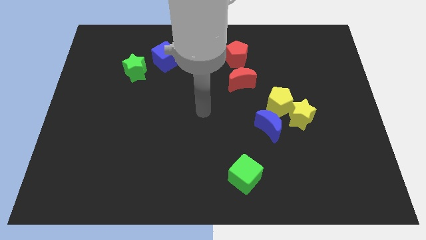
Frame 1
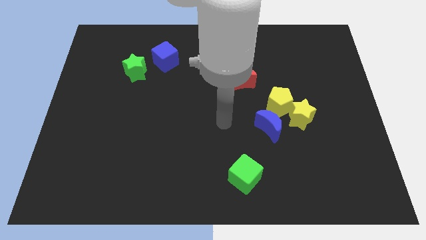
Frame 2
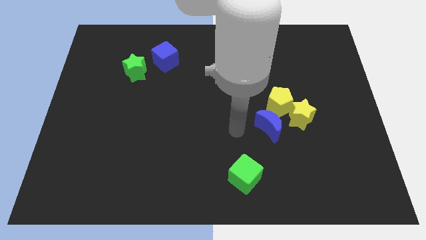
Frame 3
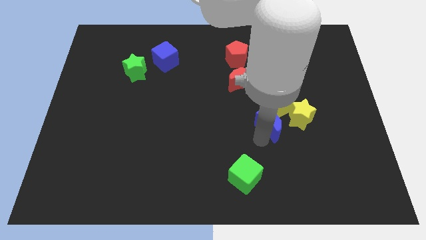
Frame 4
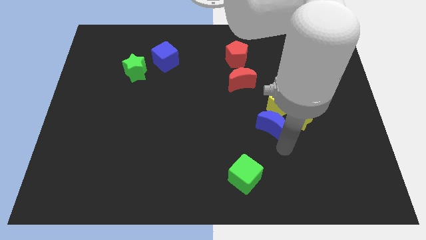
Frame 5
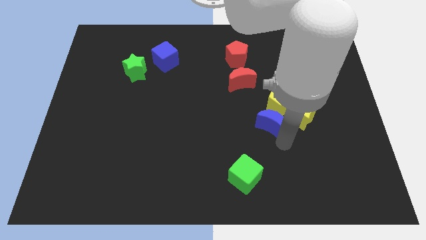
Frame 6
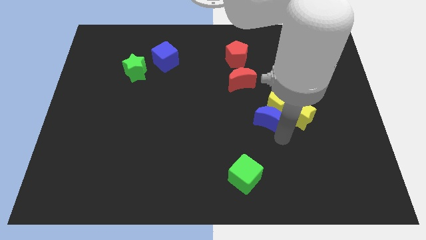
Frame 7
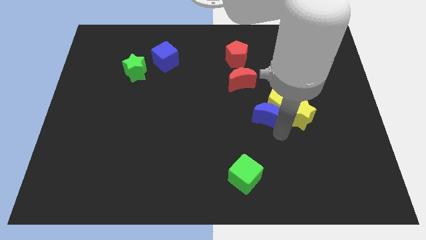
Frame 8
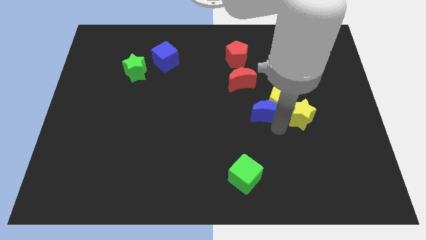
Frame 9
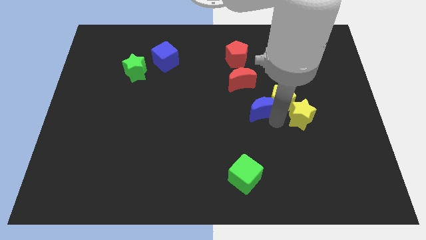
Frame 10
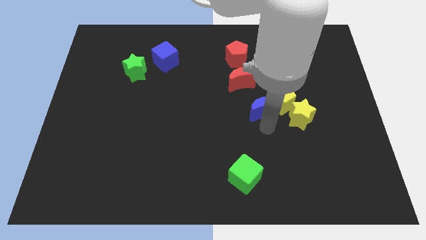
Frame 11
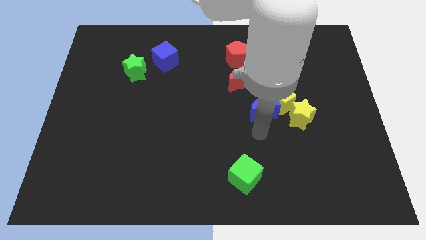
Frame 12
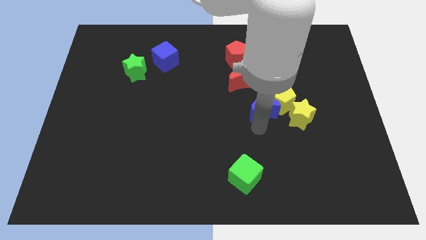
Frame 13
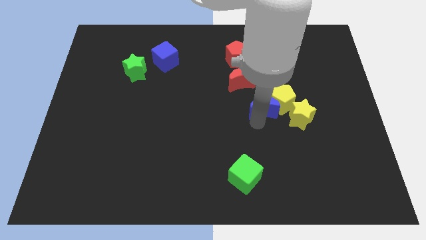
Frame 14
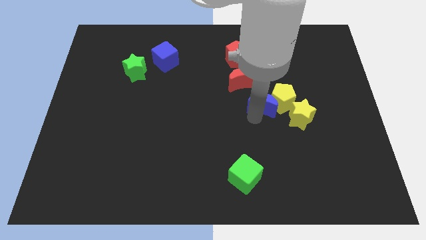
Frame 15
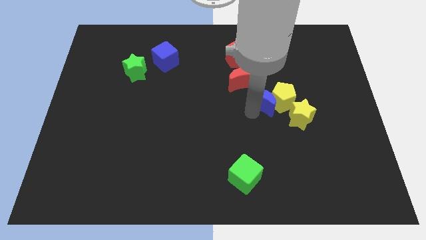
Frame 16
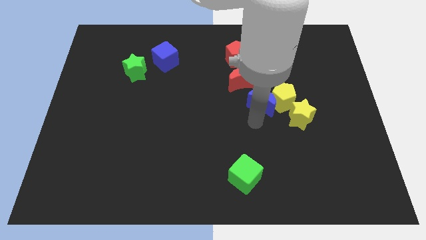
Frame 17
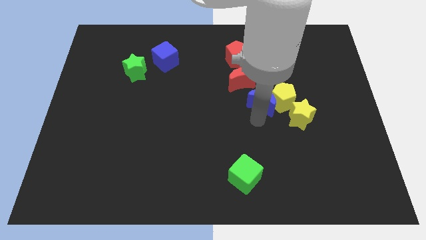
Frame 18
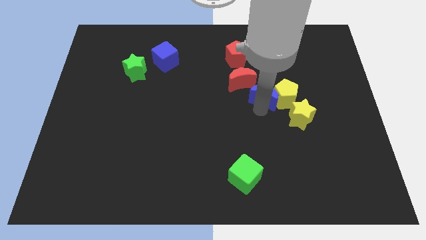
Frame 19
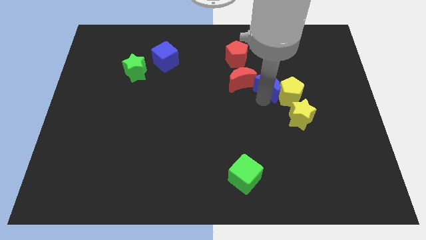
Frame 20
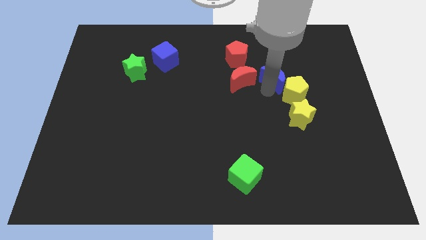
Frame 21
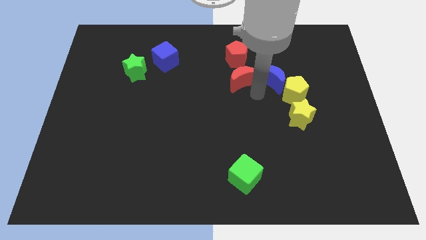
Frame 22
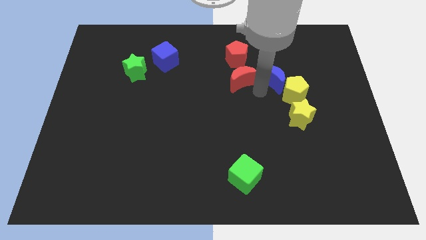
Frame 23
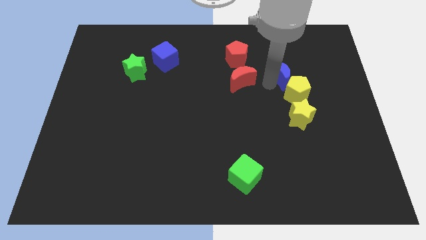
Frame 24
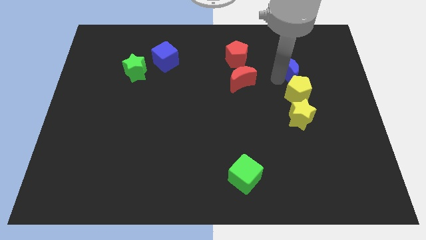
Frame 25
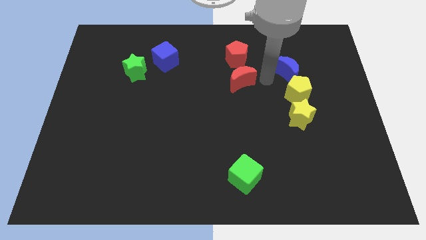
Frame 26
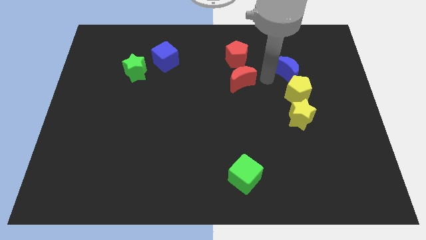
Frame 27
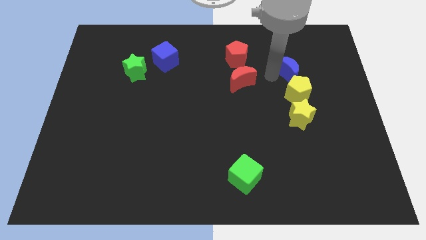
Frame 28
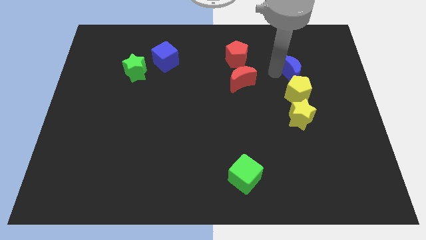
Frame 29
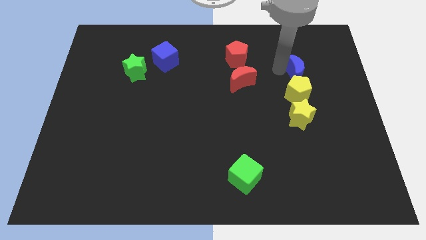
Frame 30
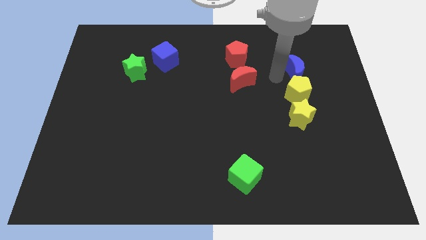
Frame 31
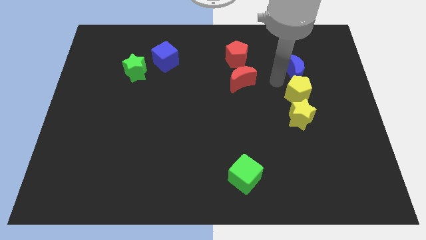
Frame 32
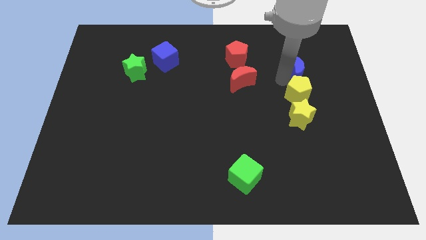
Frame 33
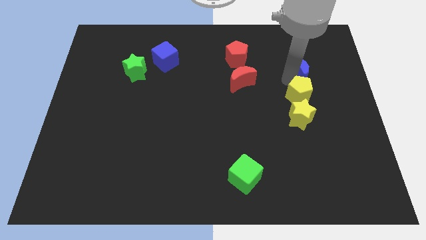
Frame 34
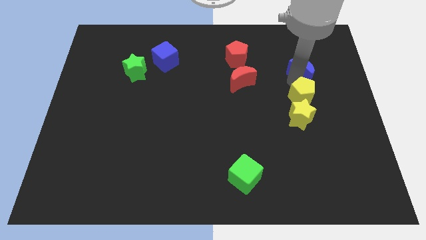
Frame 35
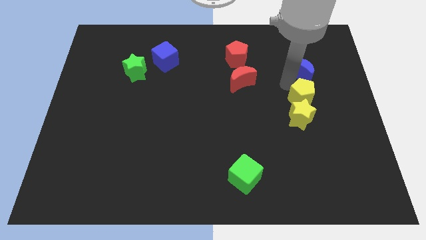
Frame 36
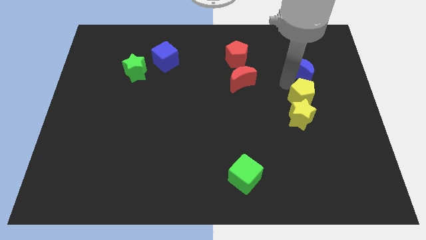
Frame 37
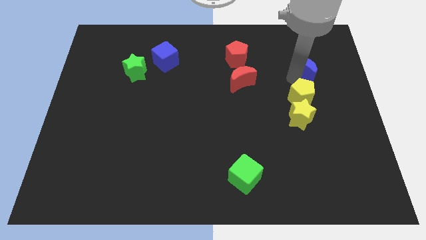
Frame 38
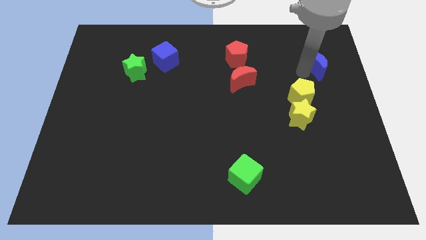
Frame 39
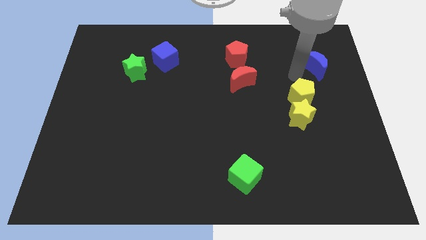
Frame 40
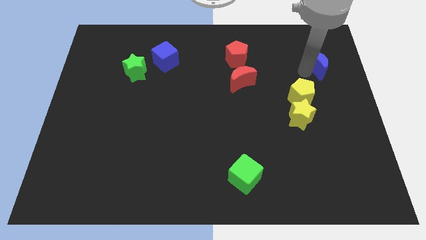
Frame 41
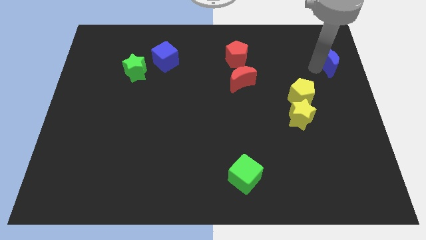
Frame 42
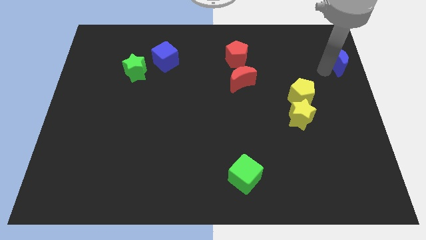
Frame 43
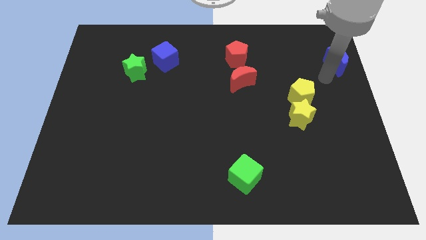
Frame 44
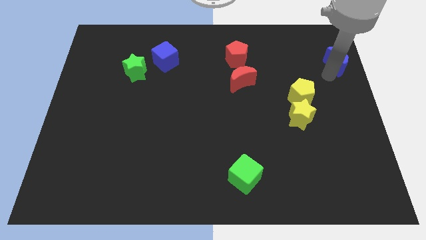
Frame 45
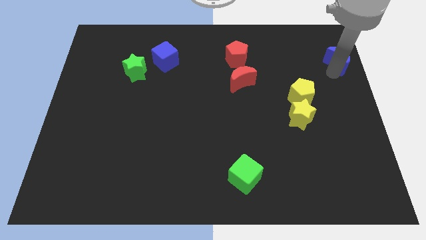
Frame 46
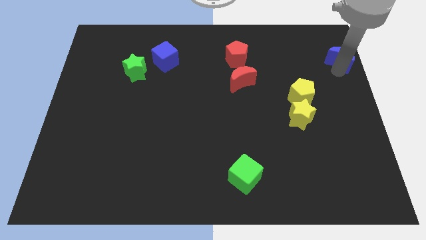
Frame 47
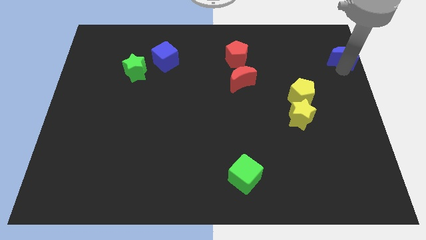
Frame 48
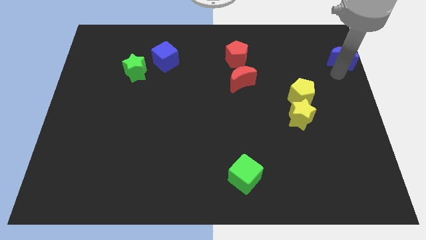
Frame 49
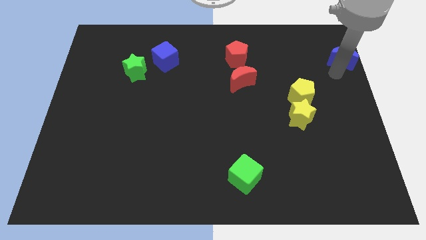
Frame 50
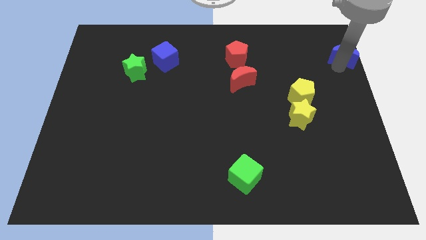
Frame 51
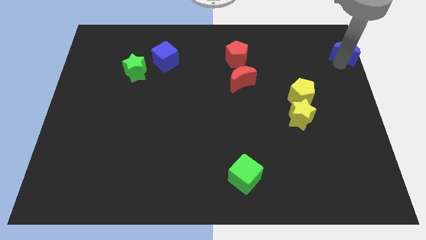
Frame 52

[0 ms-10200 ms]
slide the blue moon to the upper right corner

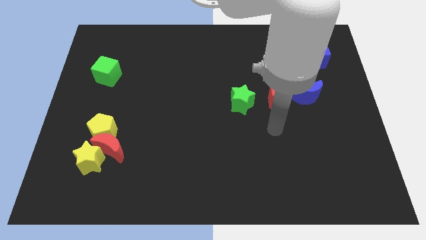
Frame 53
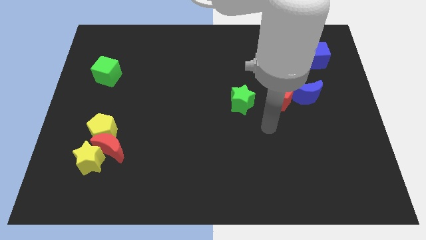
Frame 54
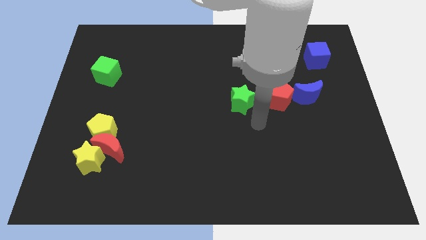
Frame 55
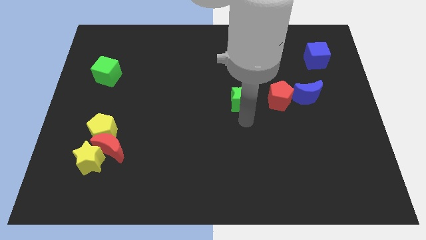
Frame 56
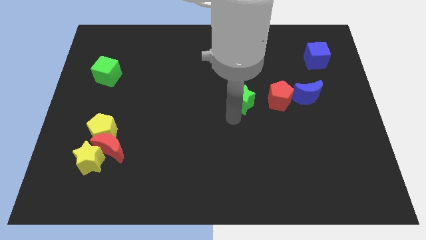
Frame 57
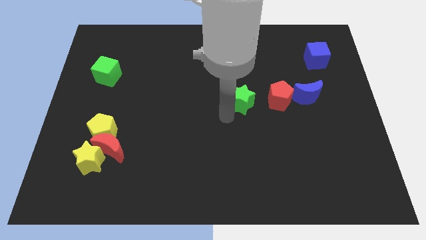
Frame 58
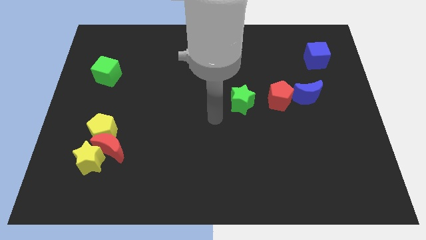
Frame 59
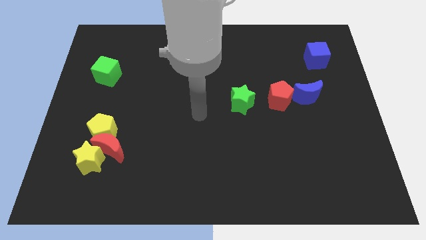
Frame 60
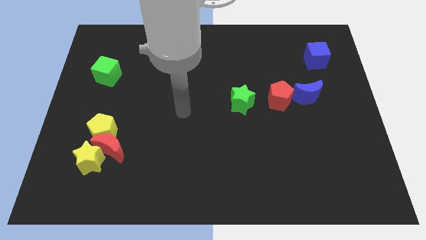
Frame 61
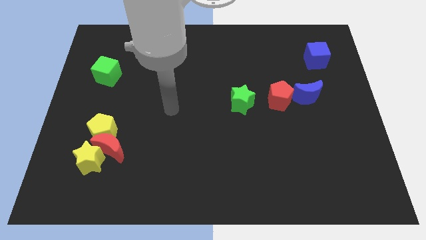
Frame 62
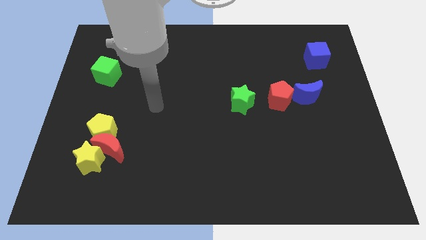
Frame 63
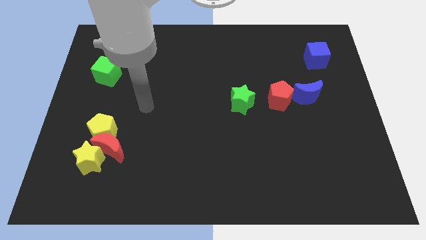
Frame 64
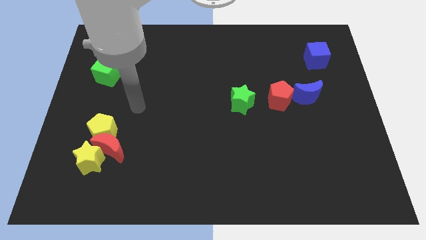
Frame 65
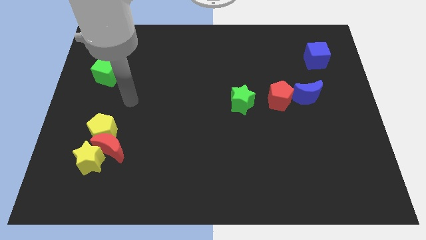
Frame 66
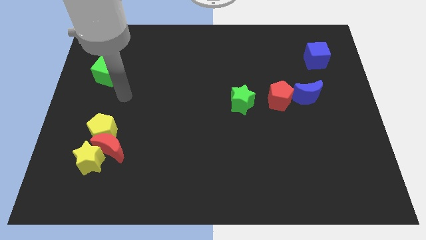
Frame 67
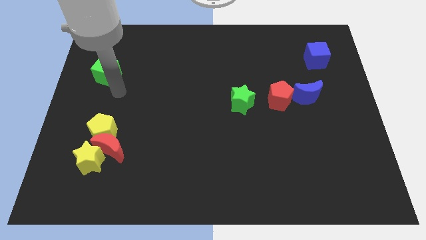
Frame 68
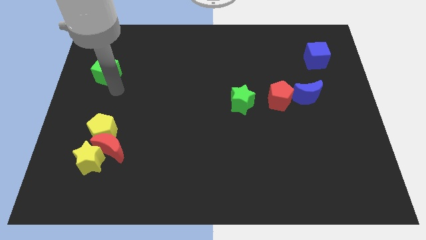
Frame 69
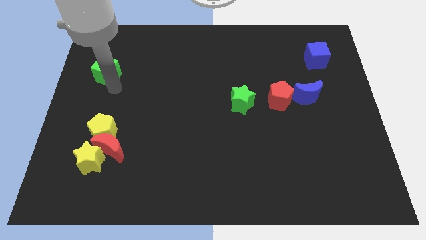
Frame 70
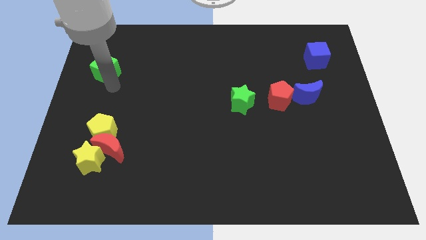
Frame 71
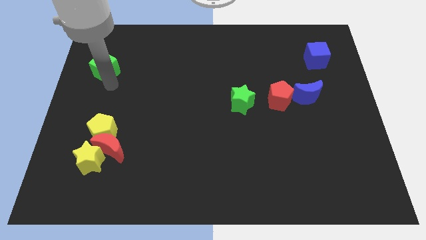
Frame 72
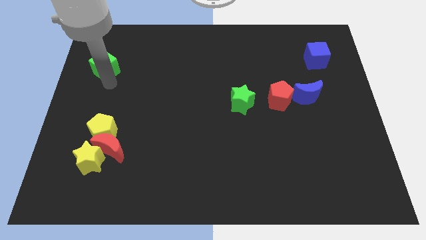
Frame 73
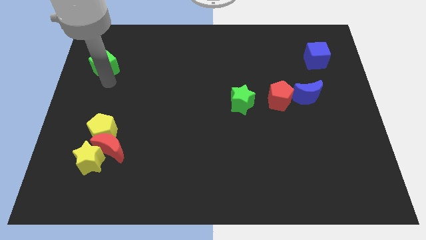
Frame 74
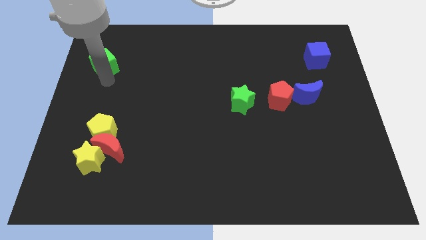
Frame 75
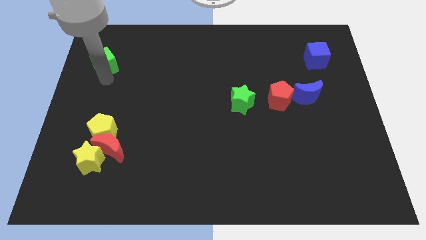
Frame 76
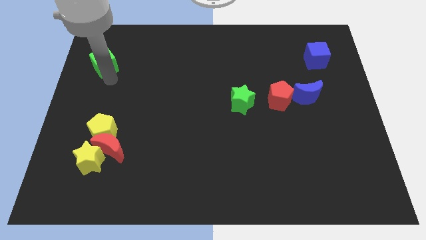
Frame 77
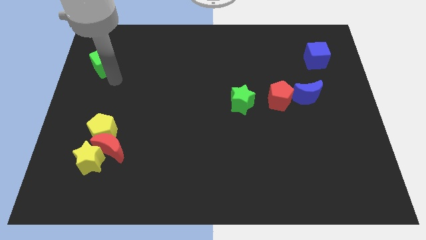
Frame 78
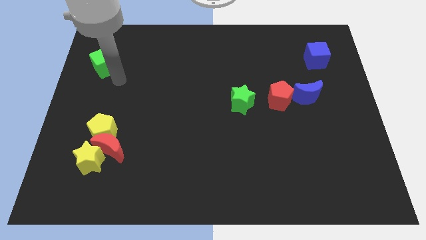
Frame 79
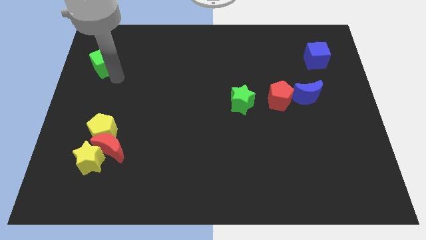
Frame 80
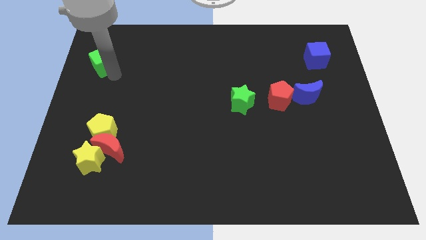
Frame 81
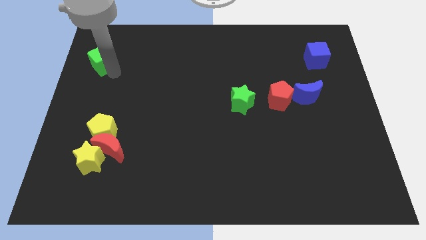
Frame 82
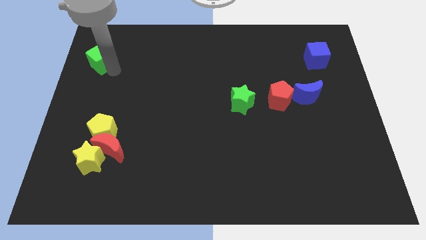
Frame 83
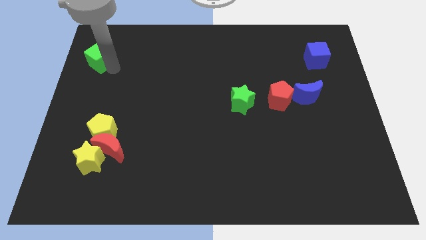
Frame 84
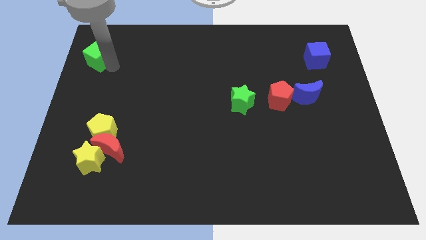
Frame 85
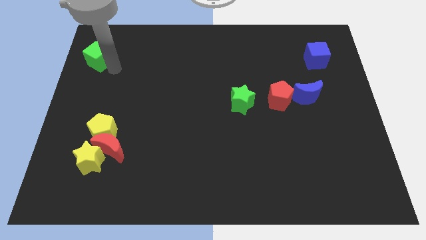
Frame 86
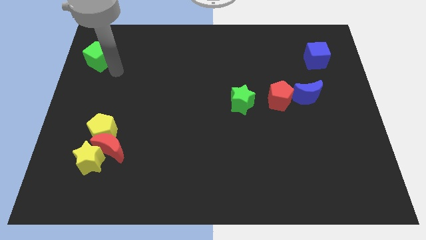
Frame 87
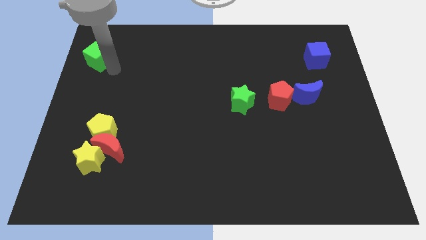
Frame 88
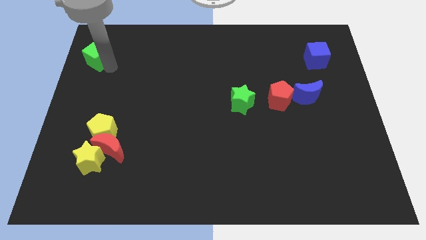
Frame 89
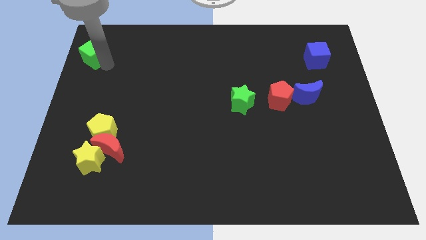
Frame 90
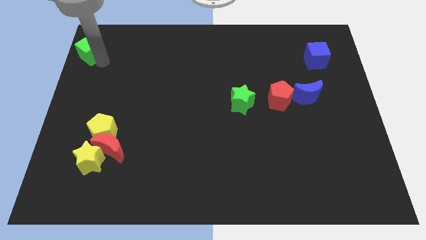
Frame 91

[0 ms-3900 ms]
push the green cube to the top left
